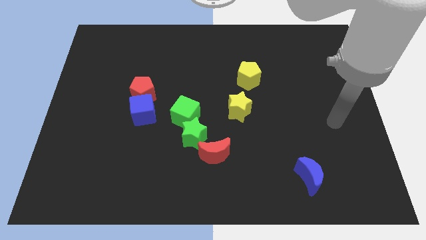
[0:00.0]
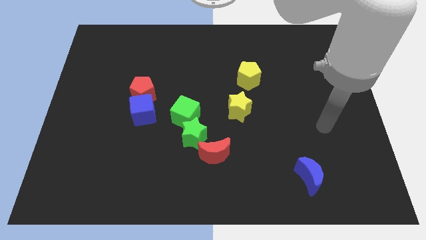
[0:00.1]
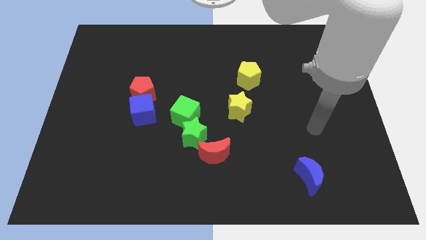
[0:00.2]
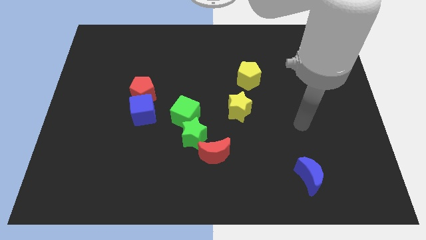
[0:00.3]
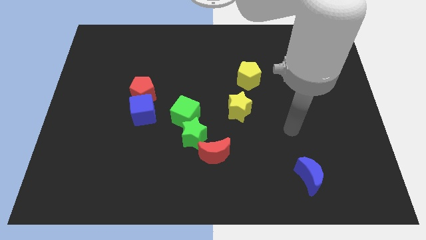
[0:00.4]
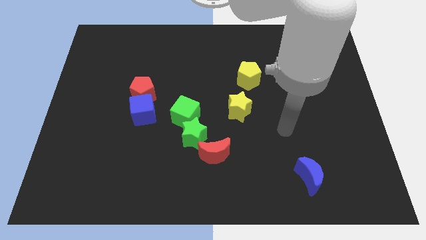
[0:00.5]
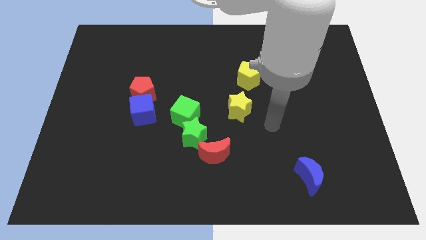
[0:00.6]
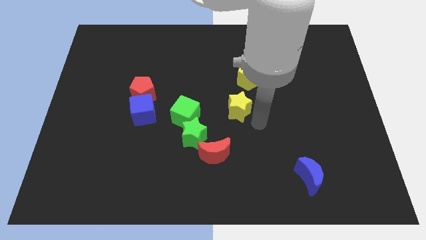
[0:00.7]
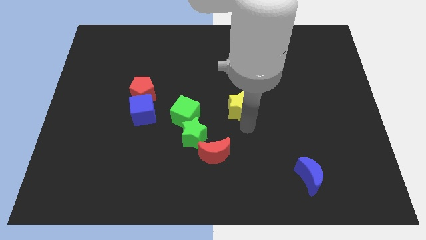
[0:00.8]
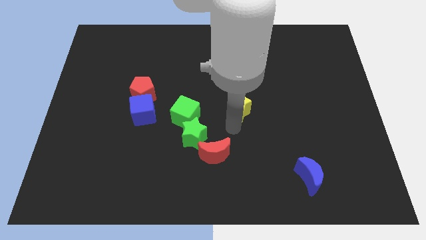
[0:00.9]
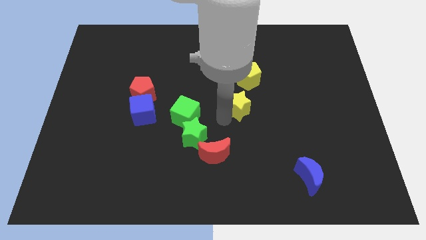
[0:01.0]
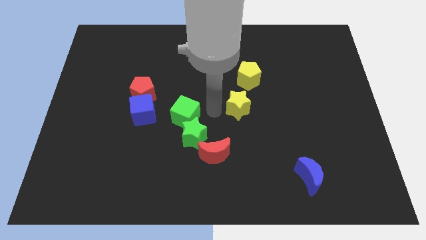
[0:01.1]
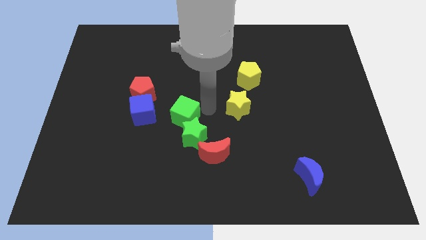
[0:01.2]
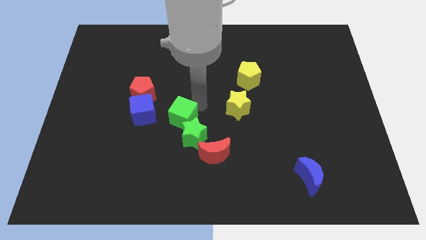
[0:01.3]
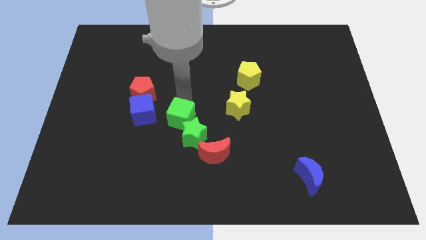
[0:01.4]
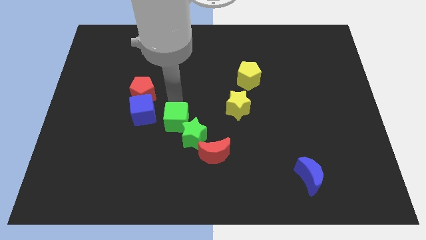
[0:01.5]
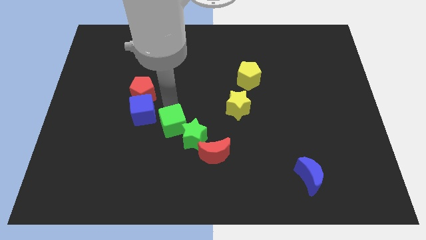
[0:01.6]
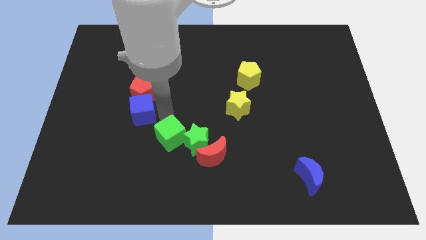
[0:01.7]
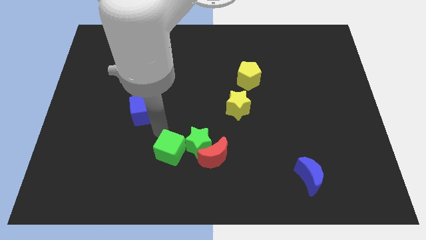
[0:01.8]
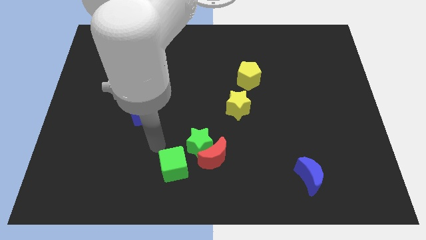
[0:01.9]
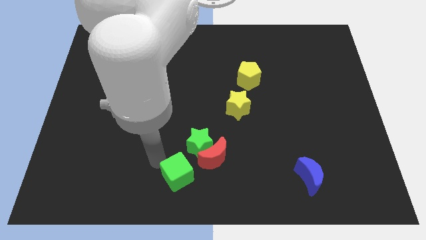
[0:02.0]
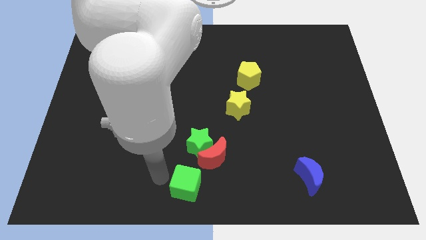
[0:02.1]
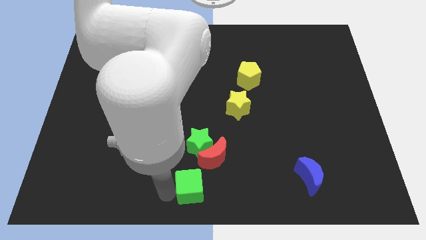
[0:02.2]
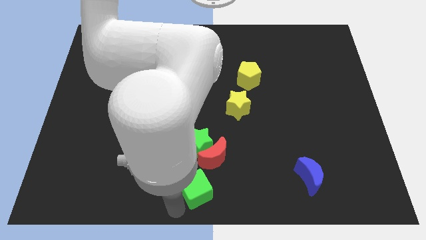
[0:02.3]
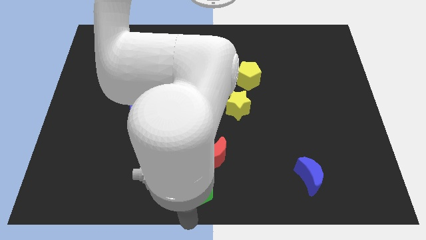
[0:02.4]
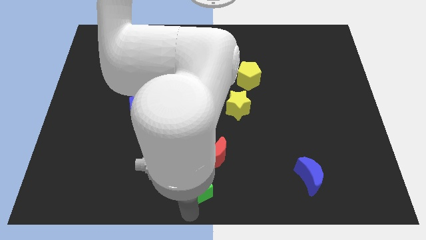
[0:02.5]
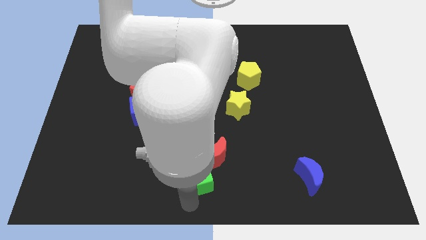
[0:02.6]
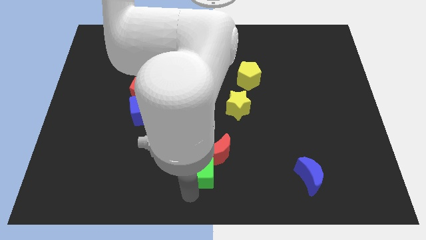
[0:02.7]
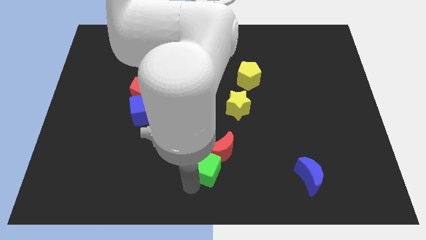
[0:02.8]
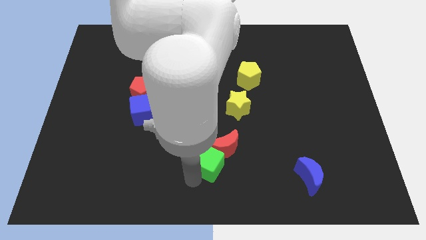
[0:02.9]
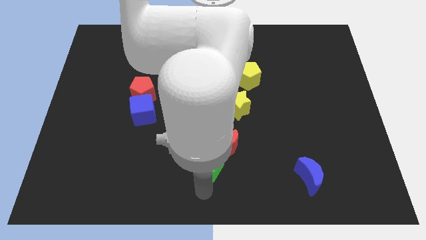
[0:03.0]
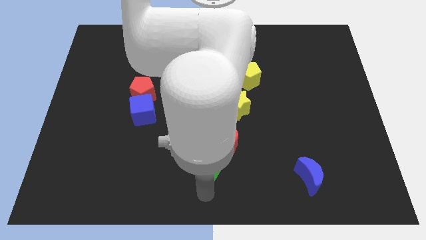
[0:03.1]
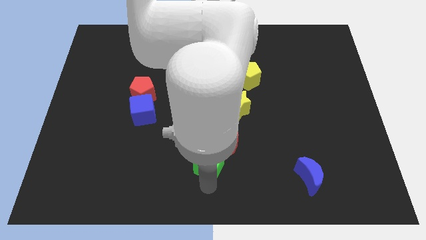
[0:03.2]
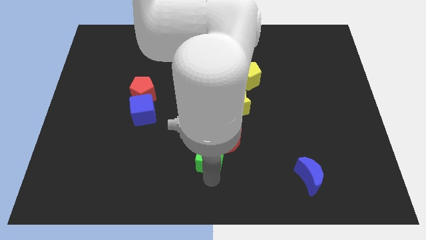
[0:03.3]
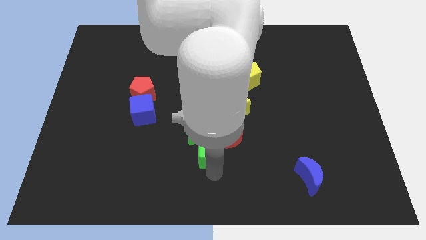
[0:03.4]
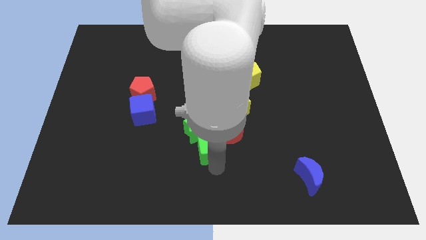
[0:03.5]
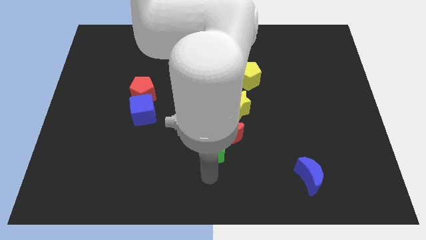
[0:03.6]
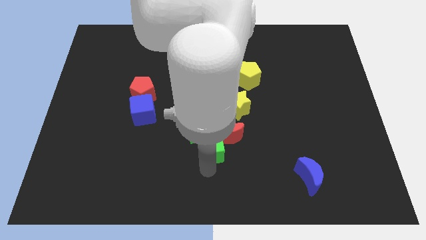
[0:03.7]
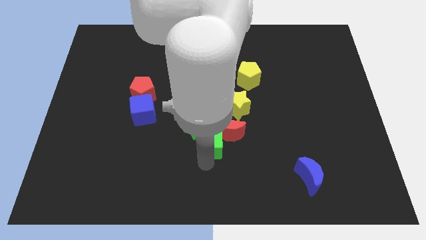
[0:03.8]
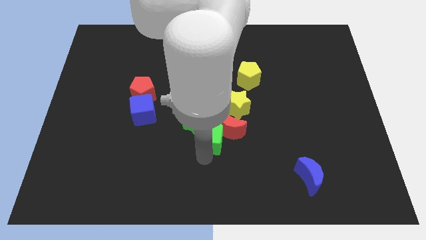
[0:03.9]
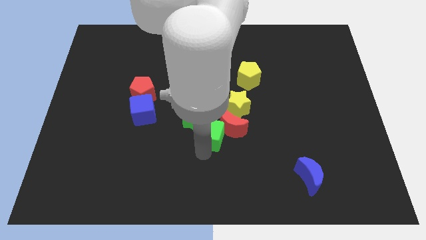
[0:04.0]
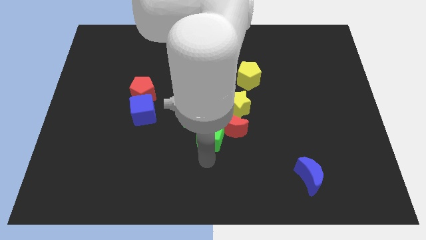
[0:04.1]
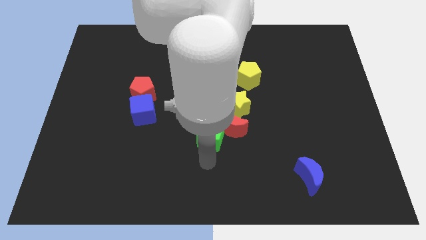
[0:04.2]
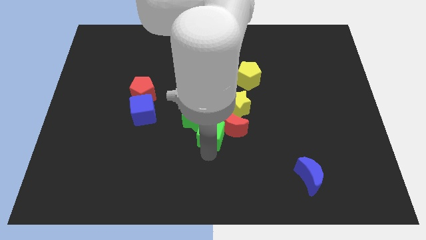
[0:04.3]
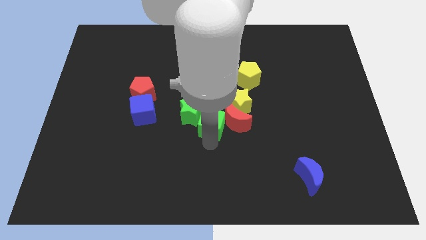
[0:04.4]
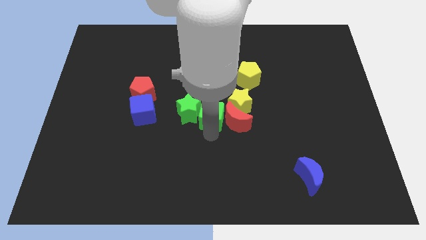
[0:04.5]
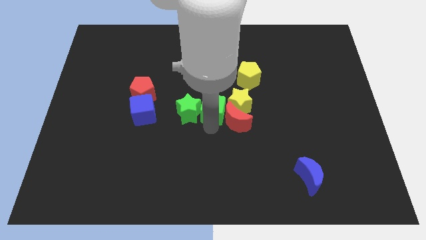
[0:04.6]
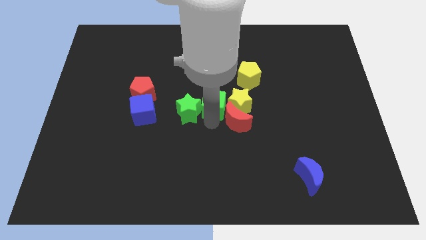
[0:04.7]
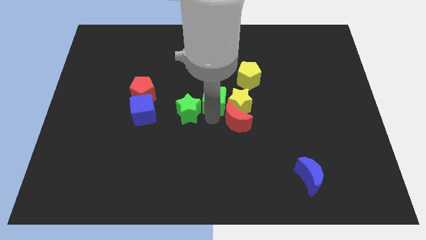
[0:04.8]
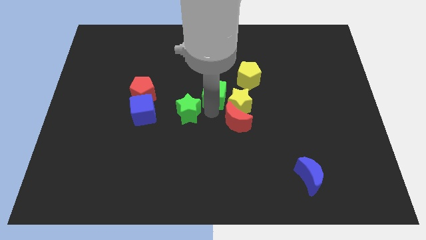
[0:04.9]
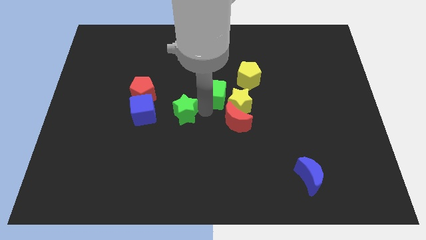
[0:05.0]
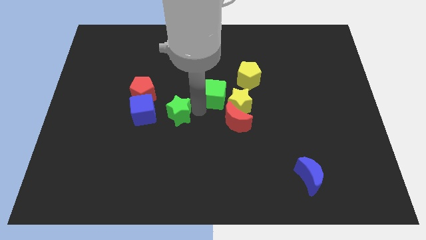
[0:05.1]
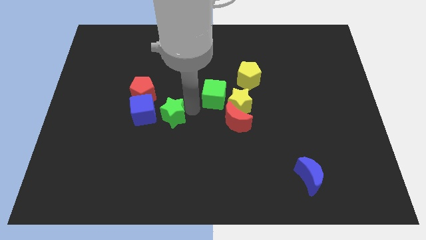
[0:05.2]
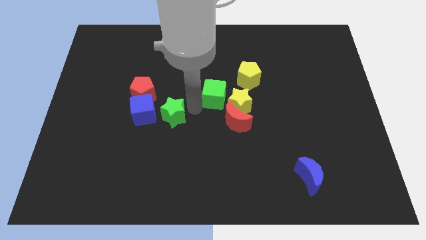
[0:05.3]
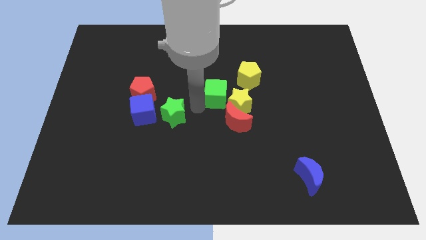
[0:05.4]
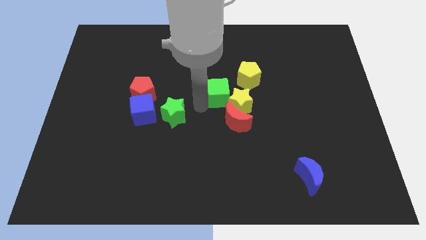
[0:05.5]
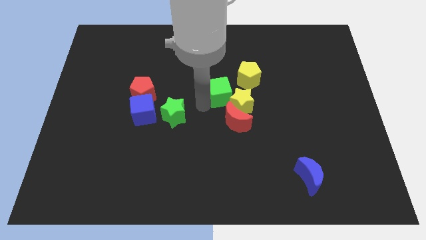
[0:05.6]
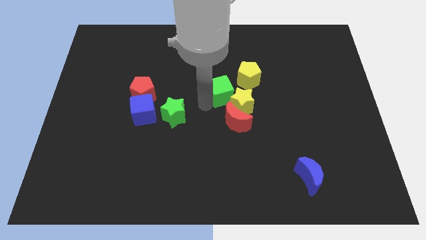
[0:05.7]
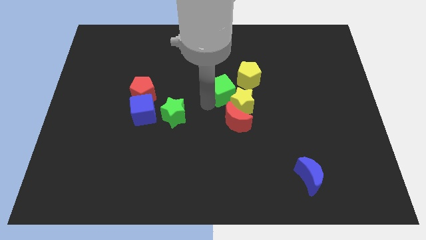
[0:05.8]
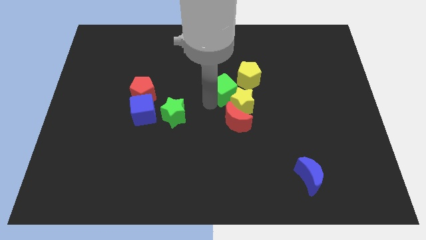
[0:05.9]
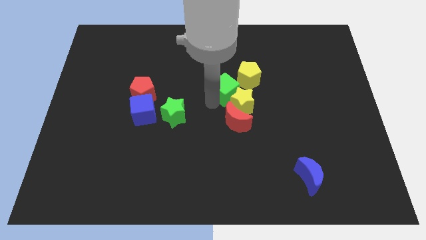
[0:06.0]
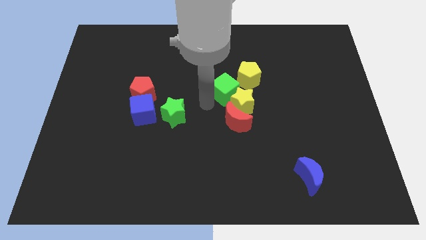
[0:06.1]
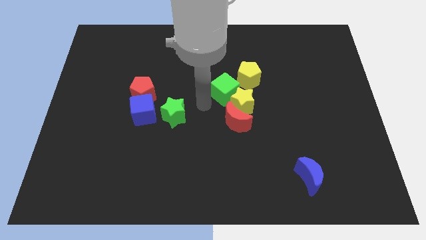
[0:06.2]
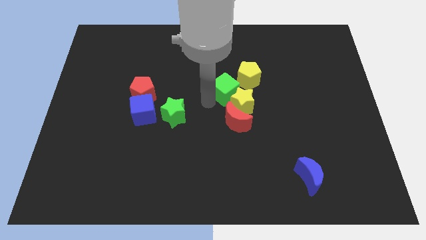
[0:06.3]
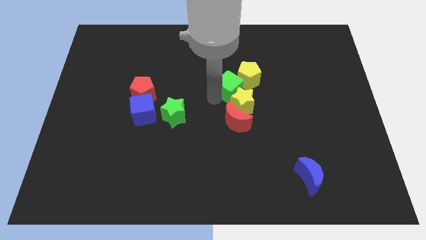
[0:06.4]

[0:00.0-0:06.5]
put the green cube towards the yellow pentagon

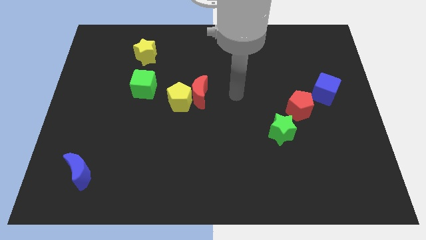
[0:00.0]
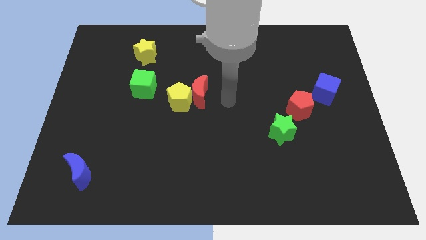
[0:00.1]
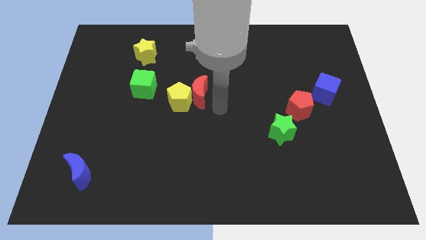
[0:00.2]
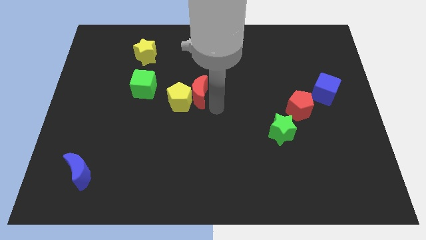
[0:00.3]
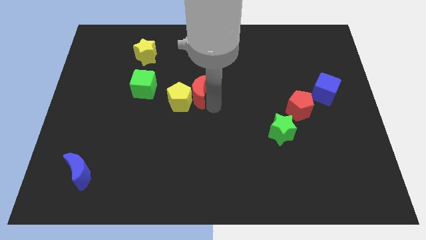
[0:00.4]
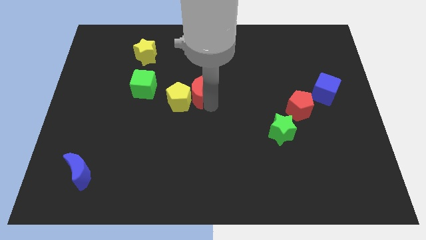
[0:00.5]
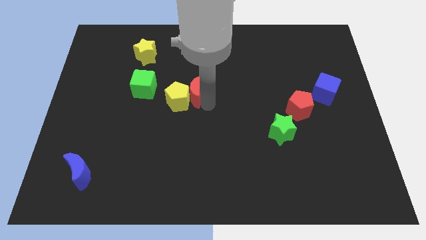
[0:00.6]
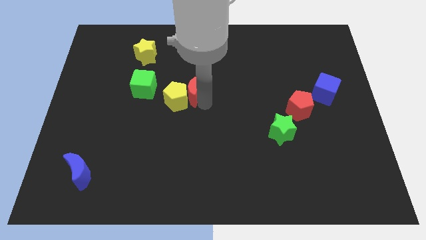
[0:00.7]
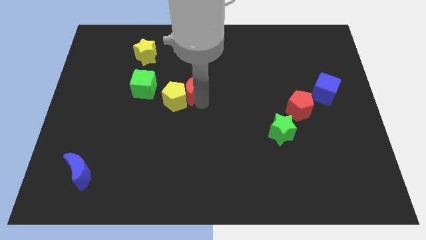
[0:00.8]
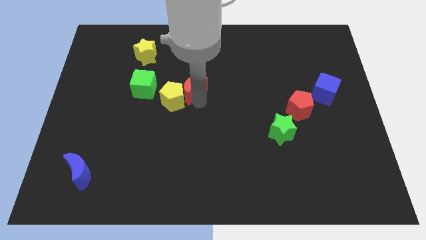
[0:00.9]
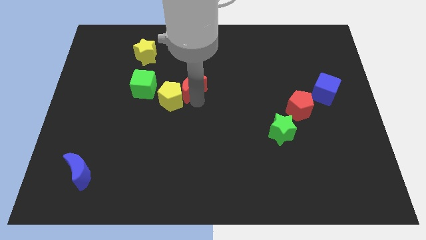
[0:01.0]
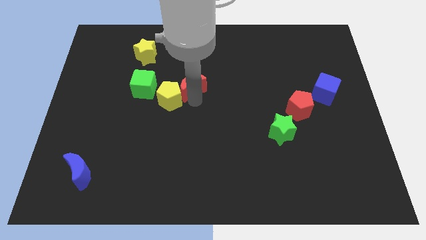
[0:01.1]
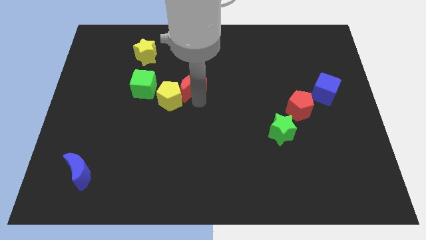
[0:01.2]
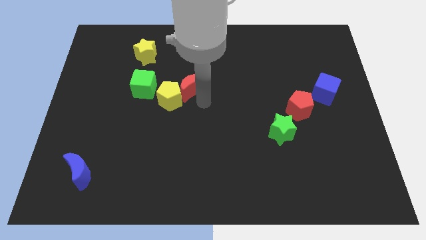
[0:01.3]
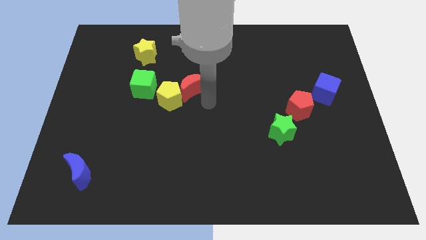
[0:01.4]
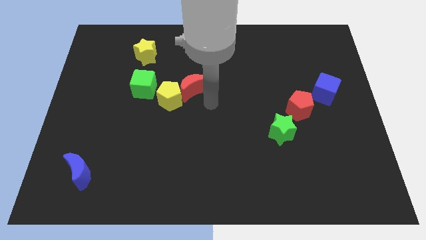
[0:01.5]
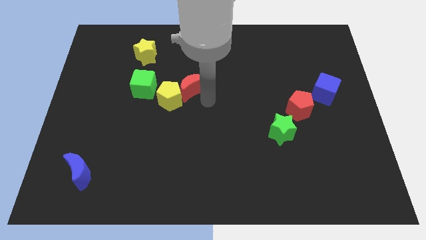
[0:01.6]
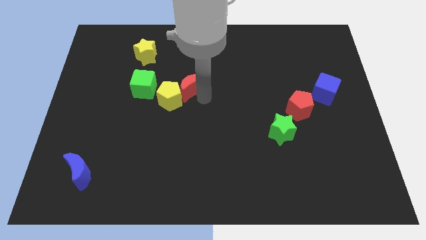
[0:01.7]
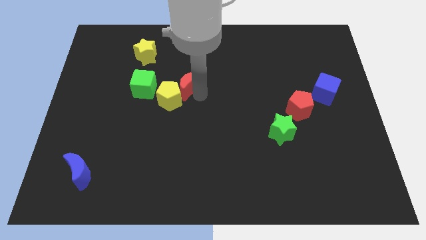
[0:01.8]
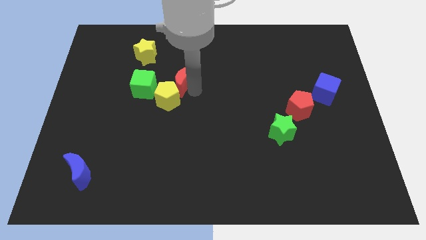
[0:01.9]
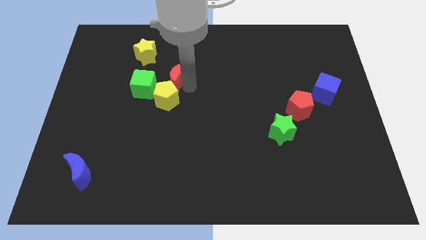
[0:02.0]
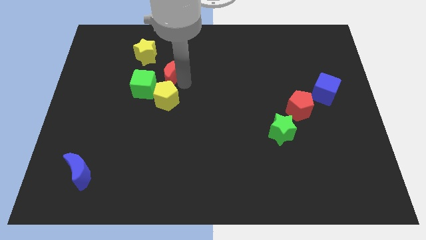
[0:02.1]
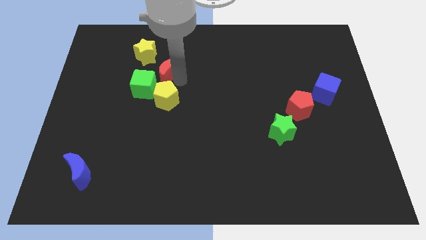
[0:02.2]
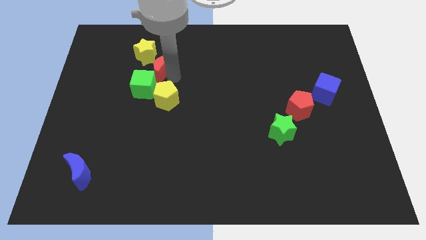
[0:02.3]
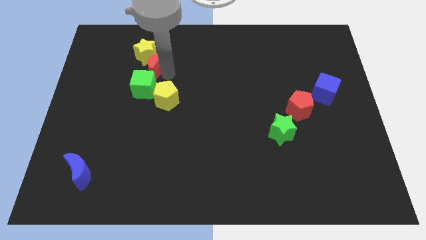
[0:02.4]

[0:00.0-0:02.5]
slide the red moon towards the yellow star

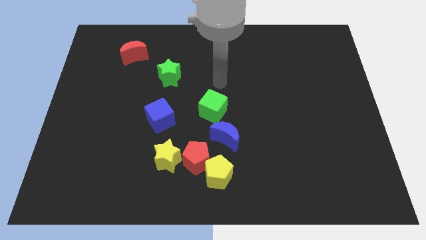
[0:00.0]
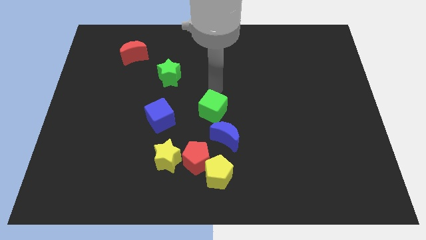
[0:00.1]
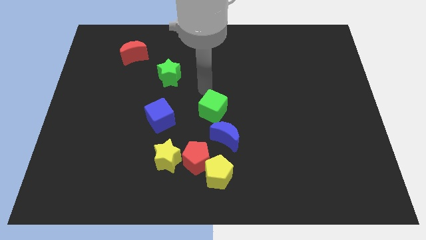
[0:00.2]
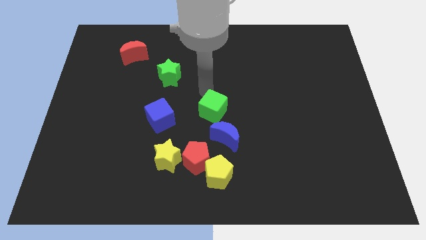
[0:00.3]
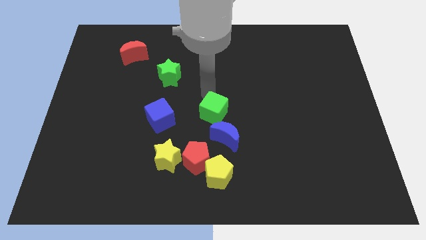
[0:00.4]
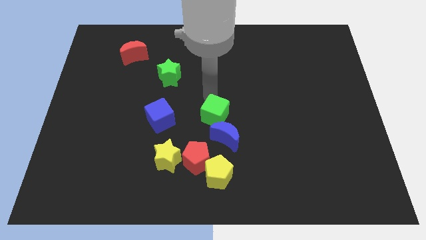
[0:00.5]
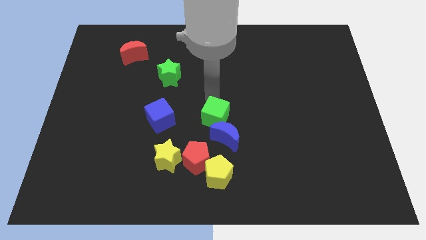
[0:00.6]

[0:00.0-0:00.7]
push the green cube close to the blue moon
